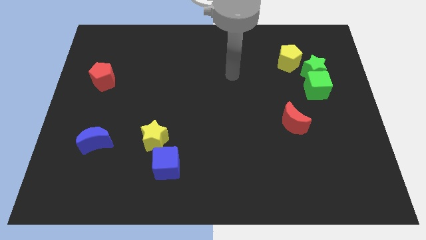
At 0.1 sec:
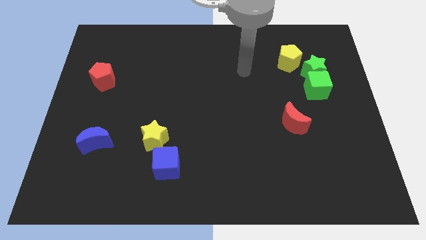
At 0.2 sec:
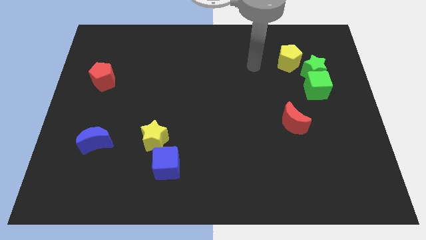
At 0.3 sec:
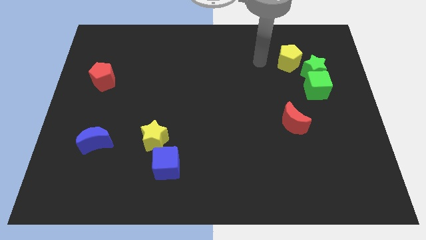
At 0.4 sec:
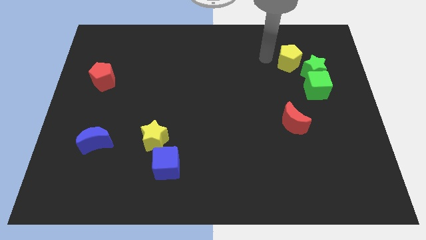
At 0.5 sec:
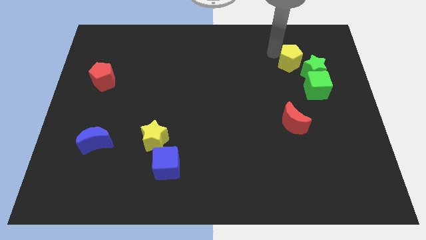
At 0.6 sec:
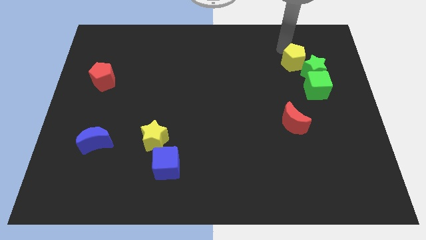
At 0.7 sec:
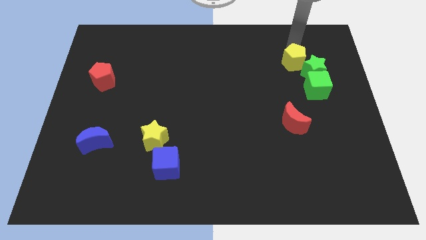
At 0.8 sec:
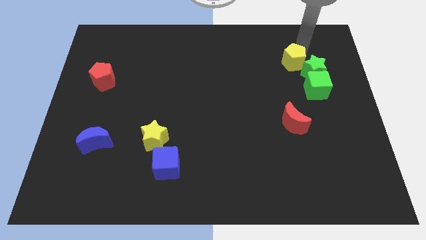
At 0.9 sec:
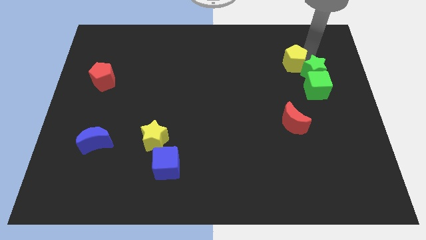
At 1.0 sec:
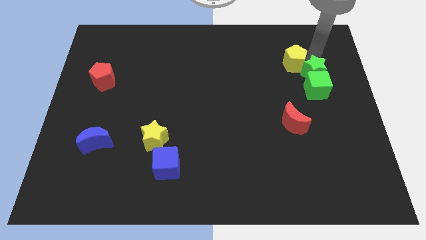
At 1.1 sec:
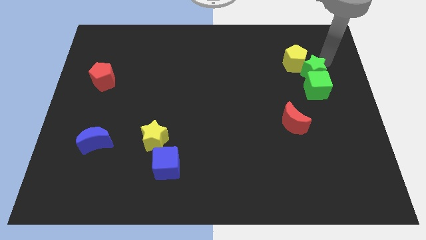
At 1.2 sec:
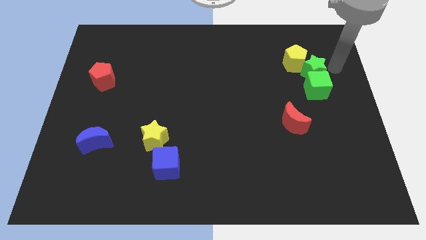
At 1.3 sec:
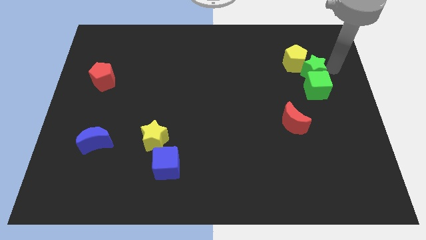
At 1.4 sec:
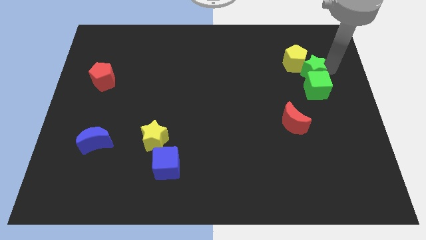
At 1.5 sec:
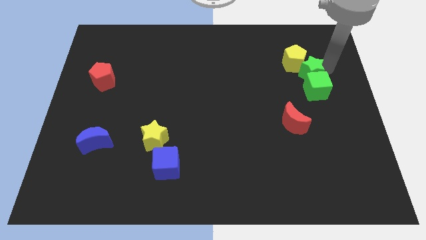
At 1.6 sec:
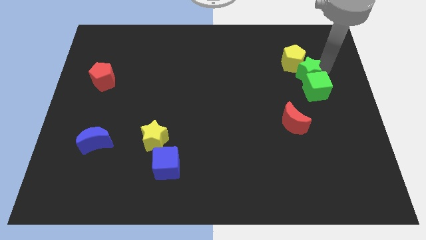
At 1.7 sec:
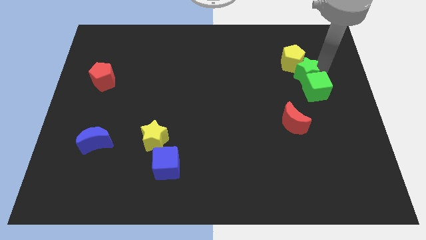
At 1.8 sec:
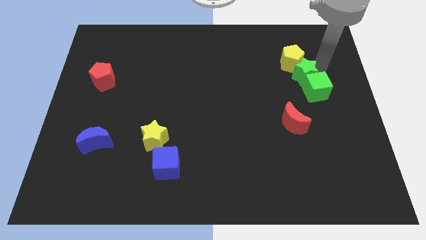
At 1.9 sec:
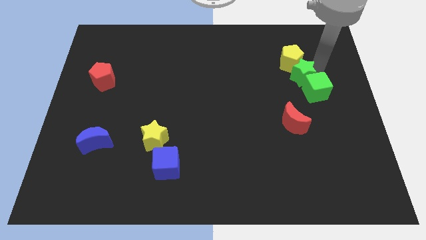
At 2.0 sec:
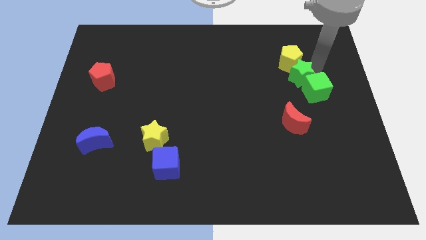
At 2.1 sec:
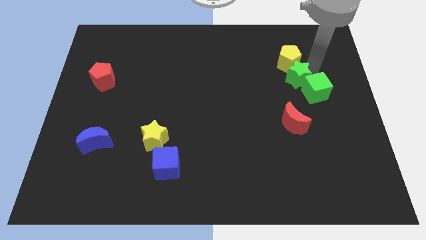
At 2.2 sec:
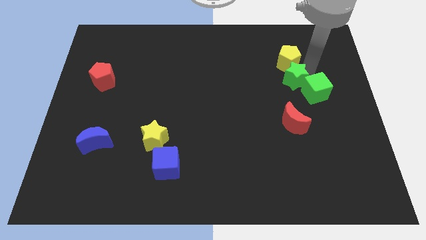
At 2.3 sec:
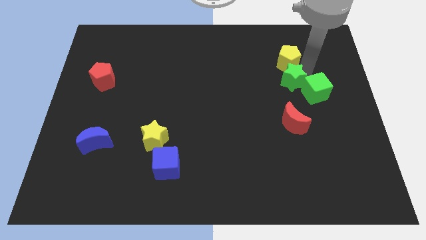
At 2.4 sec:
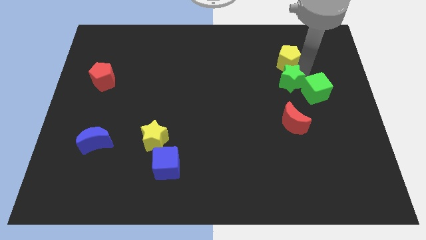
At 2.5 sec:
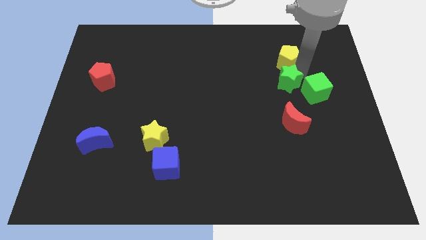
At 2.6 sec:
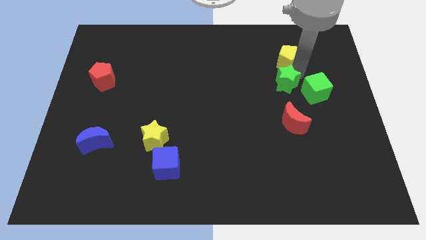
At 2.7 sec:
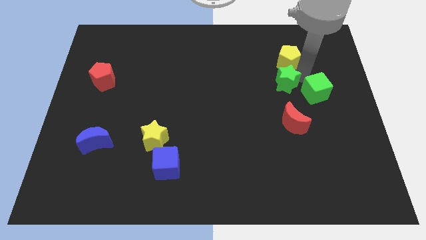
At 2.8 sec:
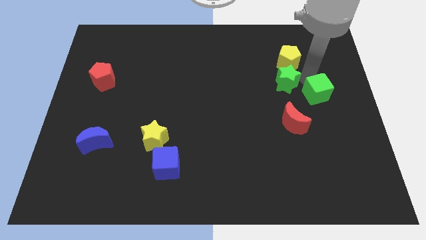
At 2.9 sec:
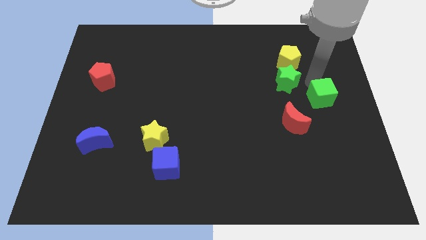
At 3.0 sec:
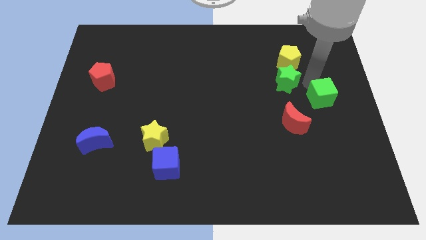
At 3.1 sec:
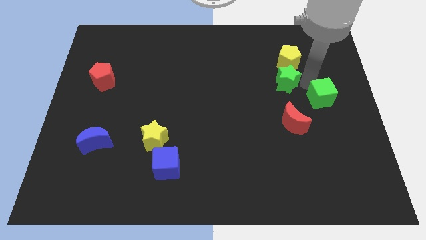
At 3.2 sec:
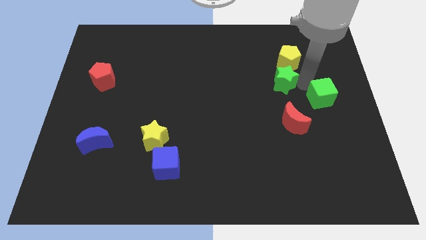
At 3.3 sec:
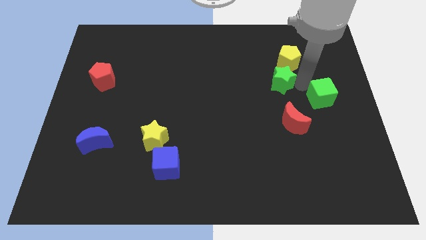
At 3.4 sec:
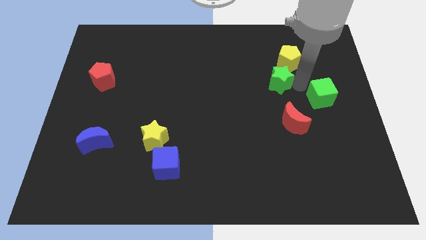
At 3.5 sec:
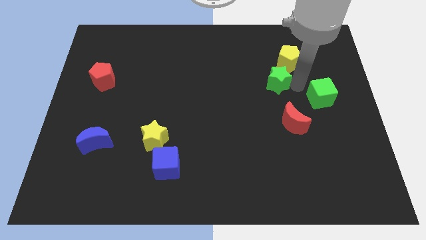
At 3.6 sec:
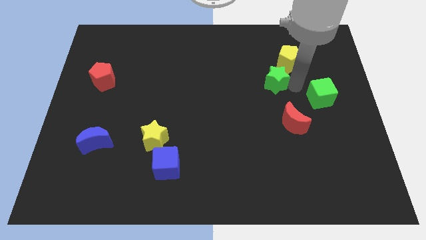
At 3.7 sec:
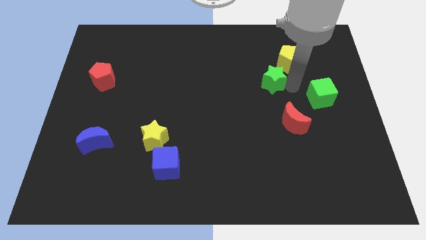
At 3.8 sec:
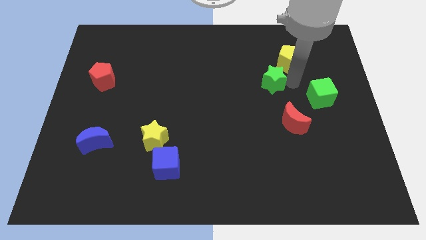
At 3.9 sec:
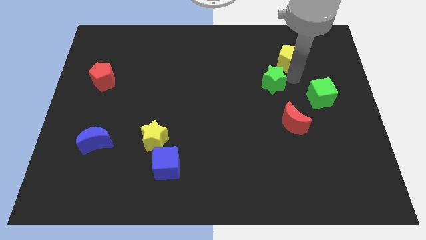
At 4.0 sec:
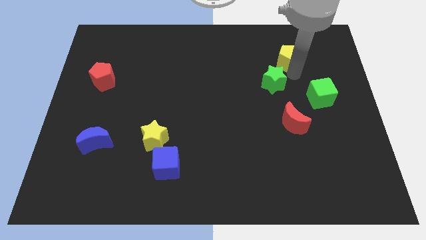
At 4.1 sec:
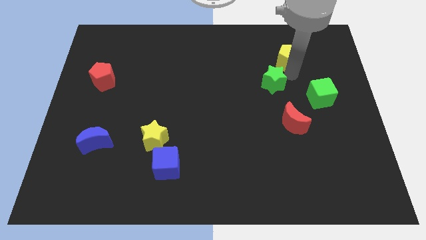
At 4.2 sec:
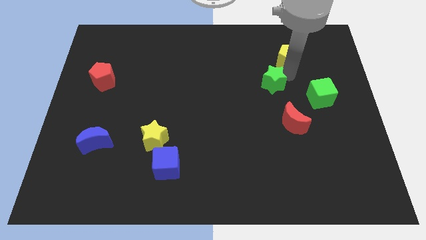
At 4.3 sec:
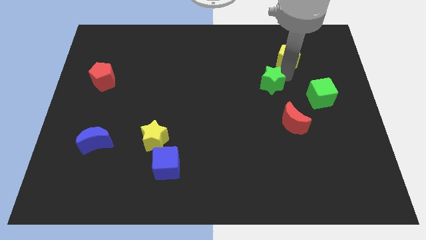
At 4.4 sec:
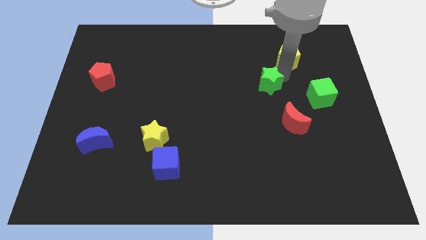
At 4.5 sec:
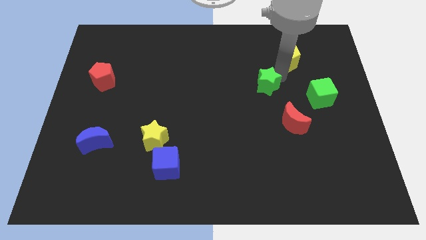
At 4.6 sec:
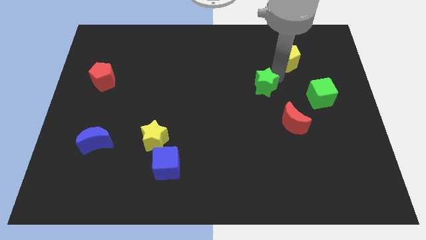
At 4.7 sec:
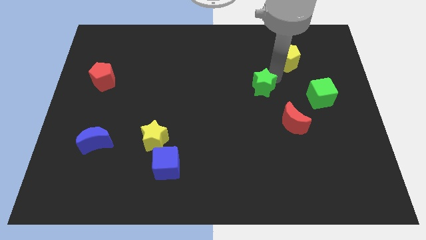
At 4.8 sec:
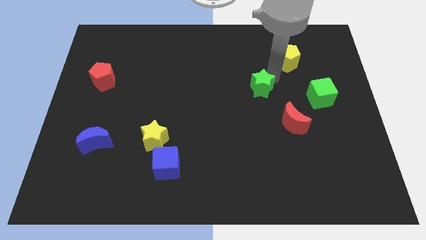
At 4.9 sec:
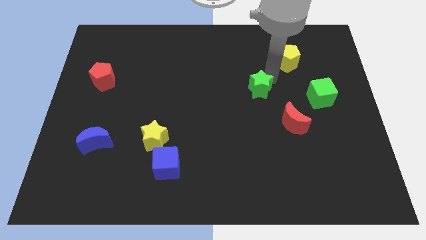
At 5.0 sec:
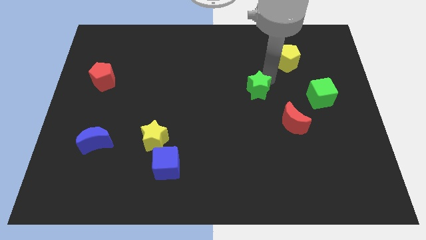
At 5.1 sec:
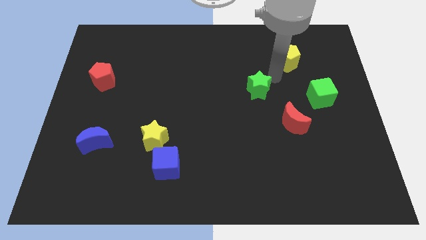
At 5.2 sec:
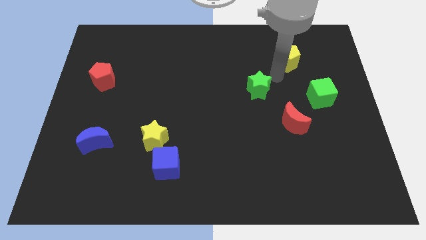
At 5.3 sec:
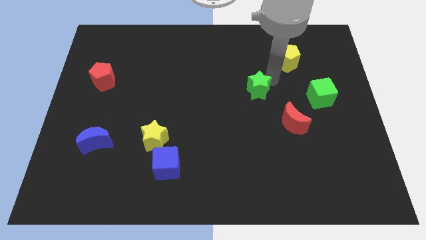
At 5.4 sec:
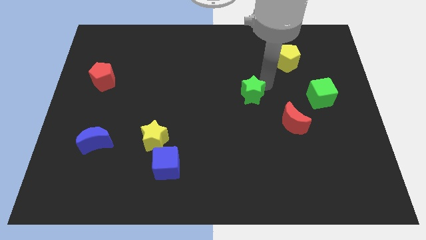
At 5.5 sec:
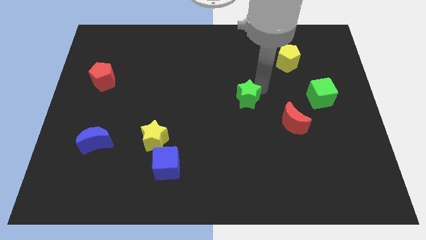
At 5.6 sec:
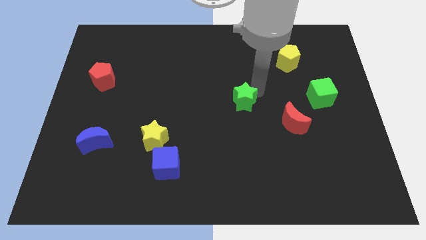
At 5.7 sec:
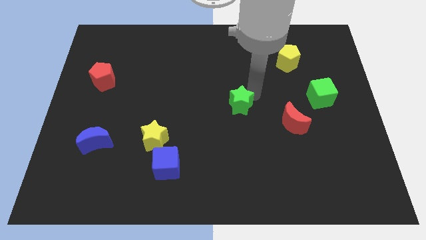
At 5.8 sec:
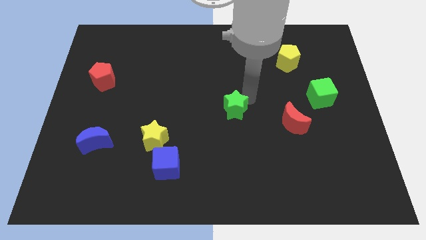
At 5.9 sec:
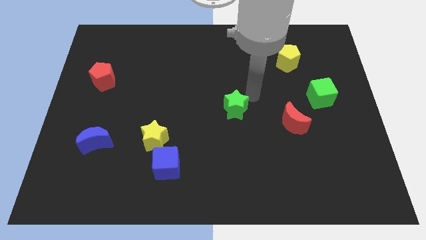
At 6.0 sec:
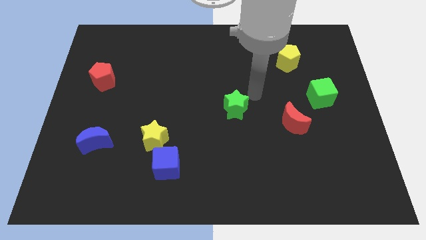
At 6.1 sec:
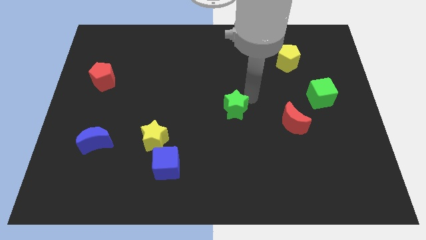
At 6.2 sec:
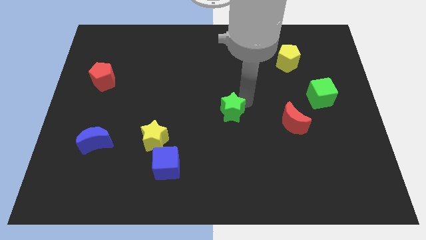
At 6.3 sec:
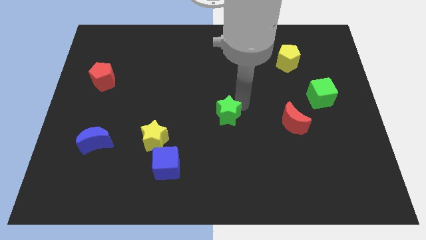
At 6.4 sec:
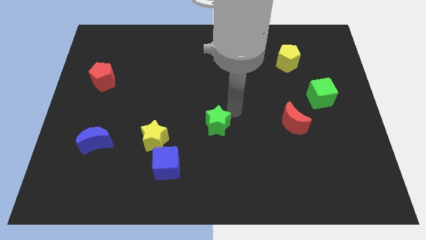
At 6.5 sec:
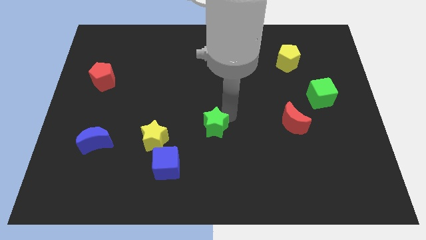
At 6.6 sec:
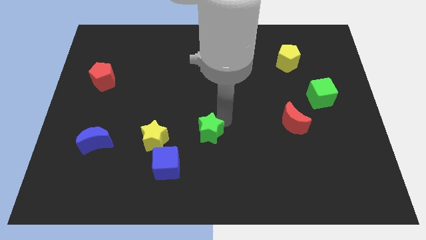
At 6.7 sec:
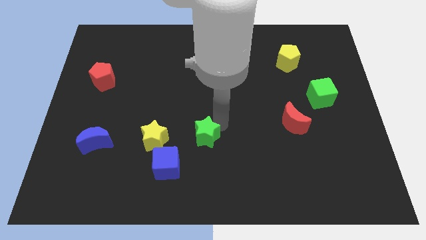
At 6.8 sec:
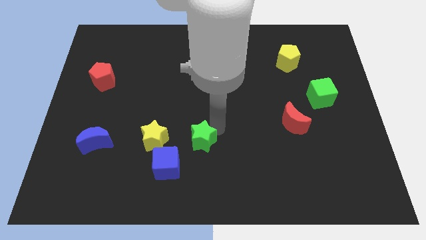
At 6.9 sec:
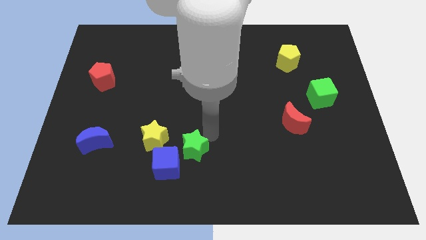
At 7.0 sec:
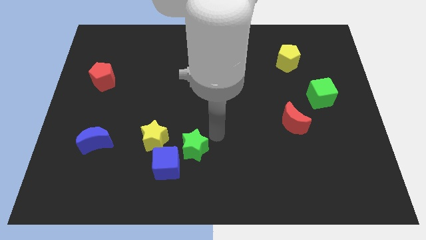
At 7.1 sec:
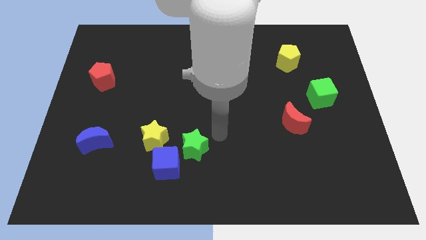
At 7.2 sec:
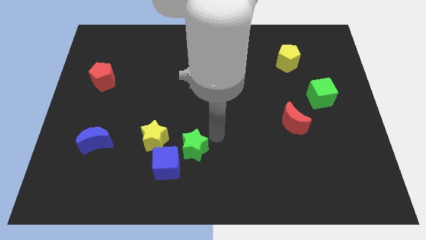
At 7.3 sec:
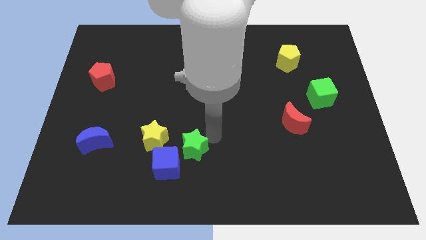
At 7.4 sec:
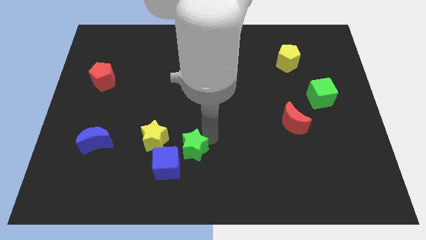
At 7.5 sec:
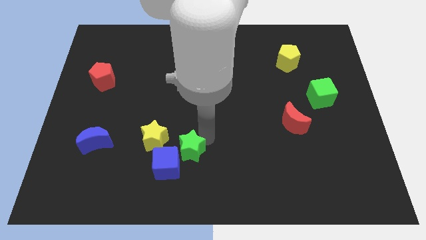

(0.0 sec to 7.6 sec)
slide the green star towards the blue cube
